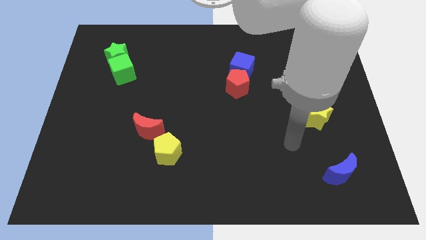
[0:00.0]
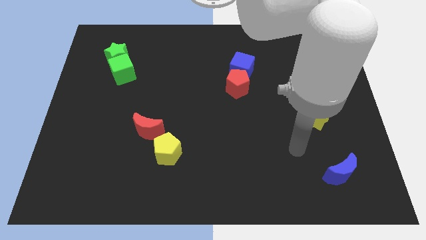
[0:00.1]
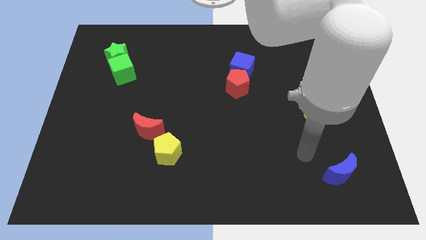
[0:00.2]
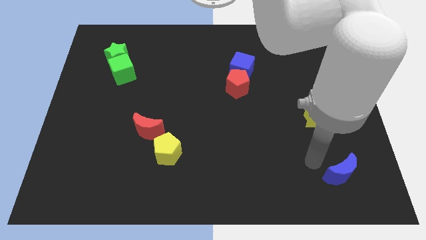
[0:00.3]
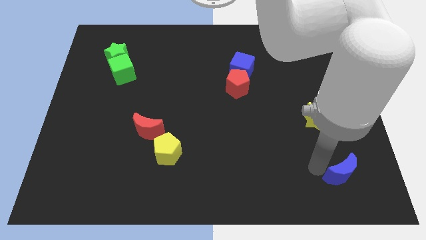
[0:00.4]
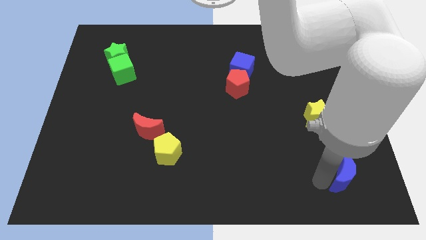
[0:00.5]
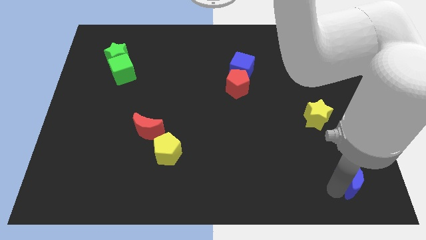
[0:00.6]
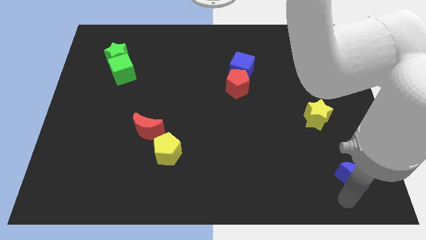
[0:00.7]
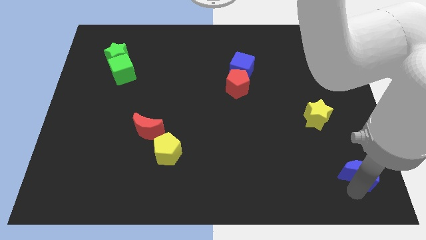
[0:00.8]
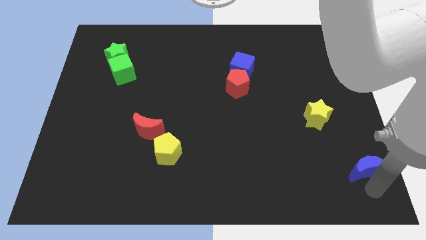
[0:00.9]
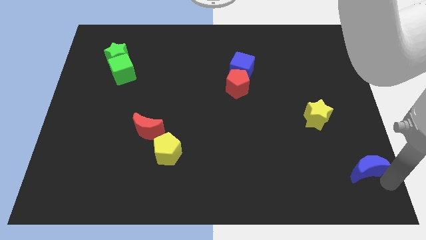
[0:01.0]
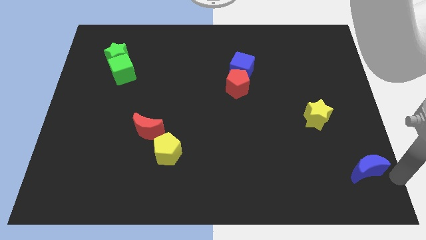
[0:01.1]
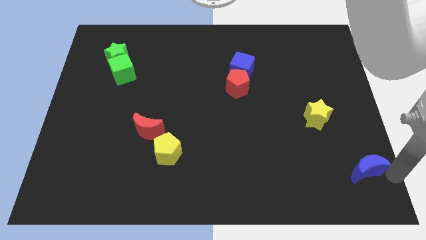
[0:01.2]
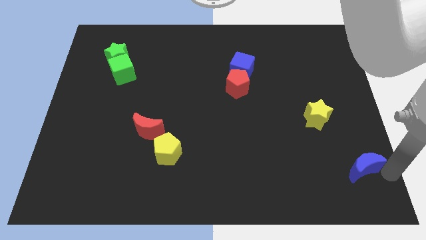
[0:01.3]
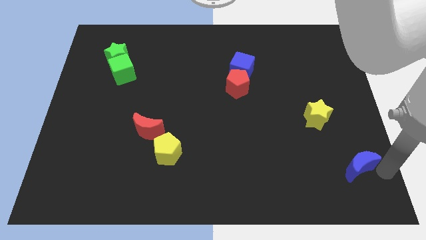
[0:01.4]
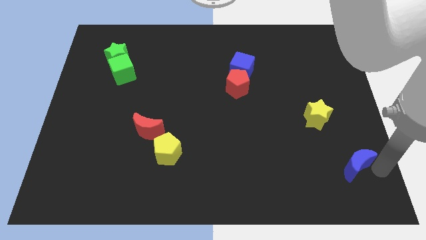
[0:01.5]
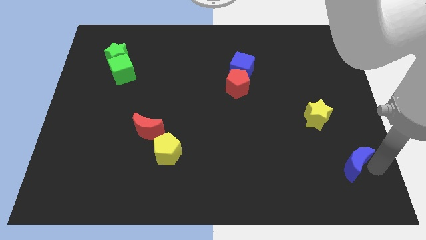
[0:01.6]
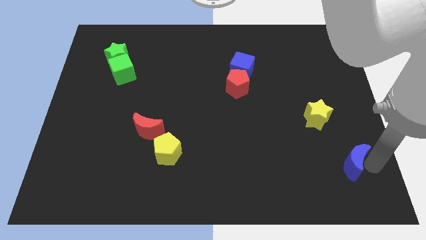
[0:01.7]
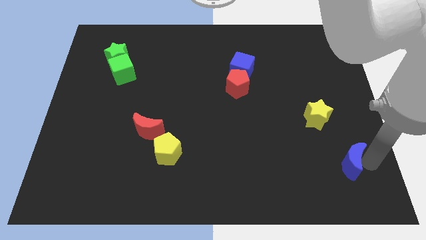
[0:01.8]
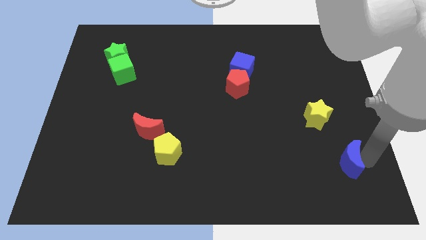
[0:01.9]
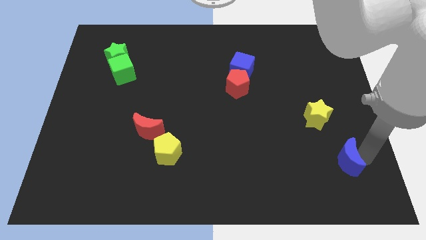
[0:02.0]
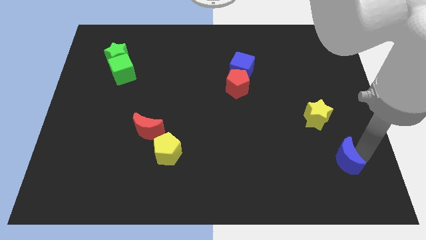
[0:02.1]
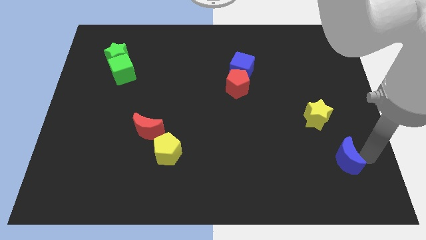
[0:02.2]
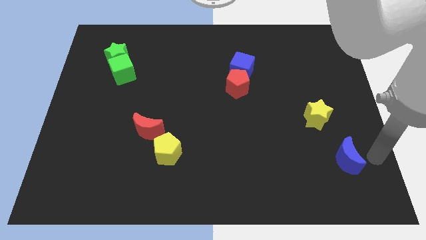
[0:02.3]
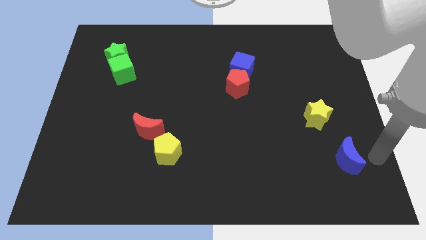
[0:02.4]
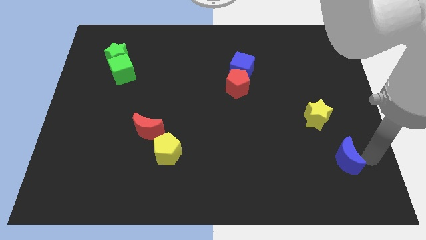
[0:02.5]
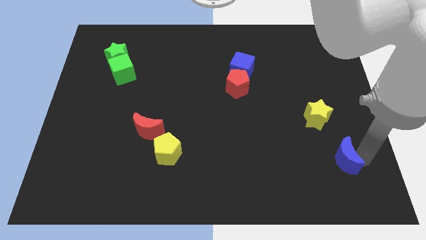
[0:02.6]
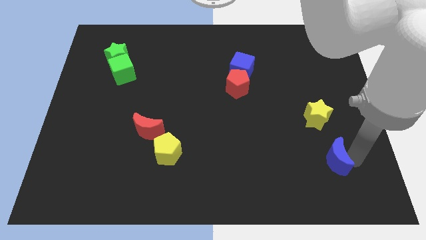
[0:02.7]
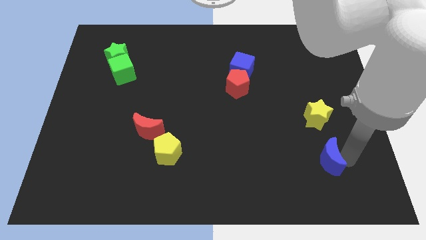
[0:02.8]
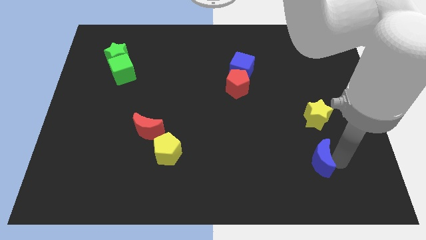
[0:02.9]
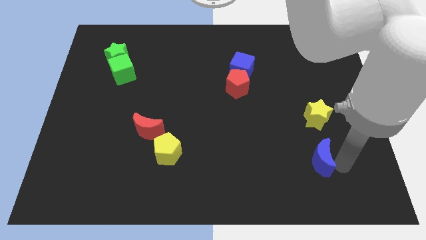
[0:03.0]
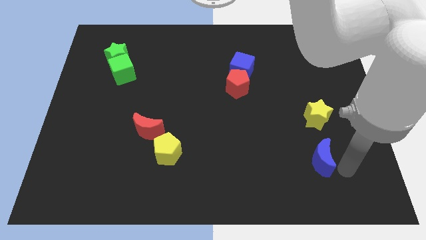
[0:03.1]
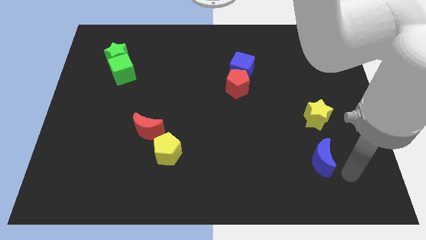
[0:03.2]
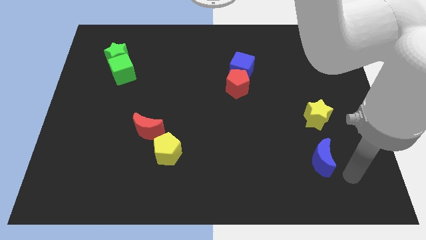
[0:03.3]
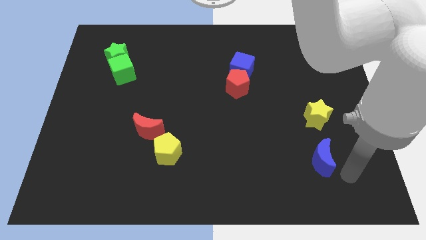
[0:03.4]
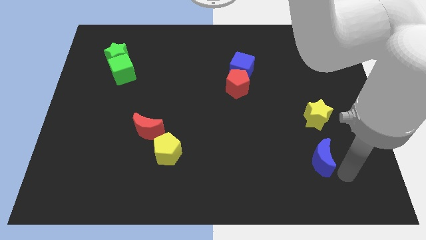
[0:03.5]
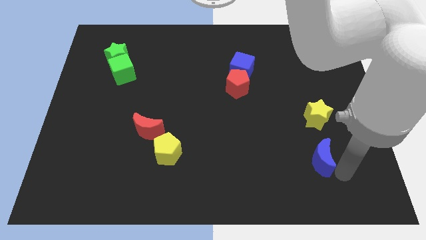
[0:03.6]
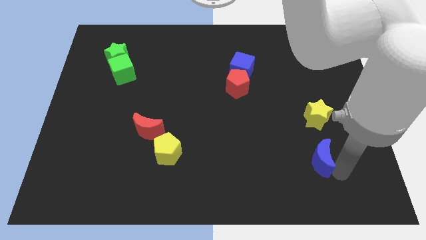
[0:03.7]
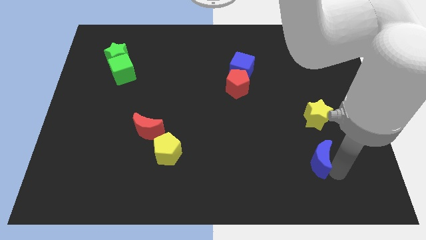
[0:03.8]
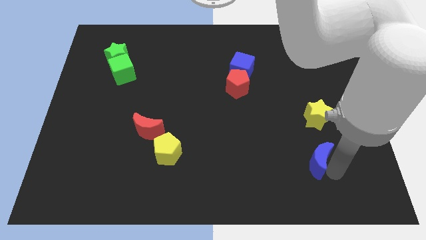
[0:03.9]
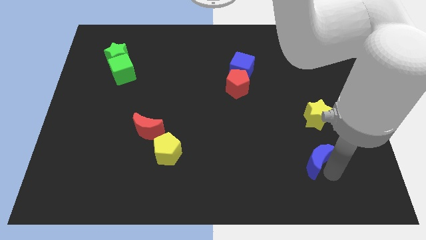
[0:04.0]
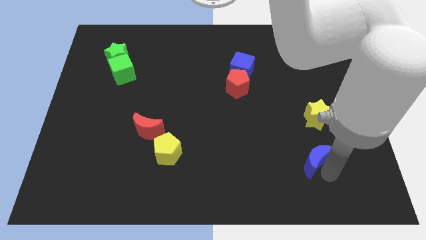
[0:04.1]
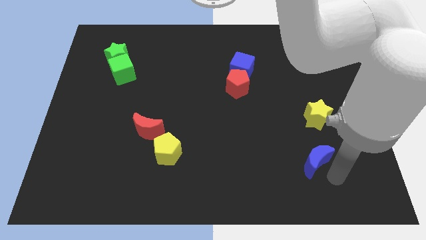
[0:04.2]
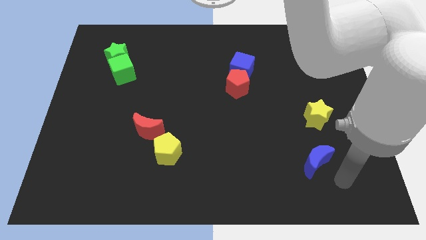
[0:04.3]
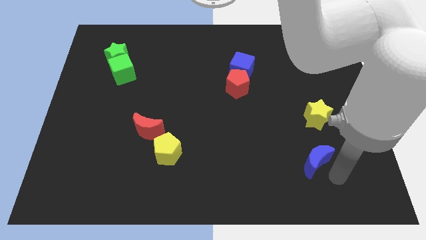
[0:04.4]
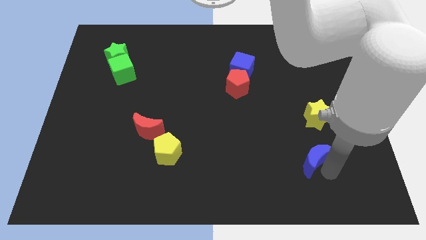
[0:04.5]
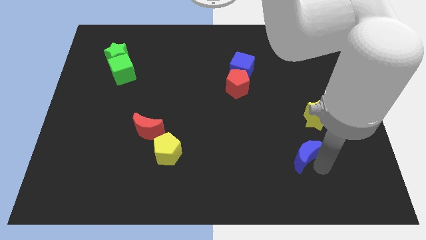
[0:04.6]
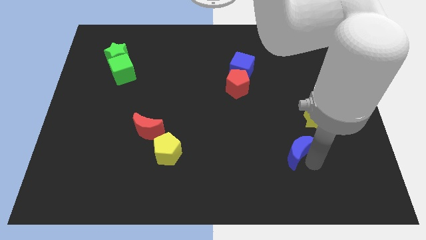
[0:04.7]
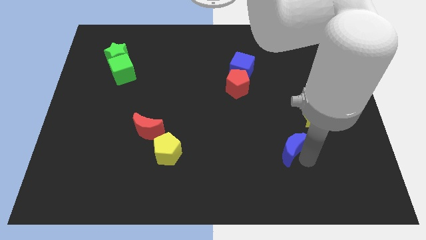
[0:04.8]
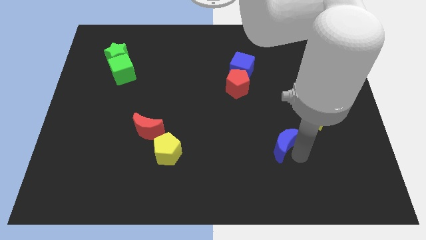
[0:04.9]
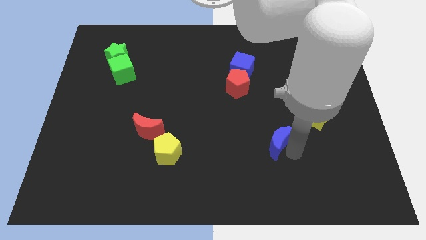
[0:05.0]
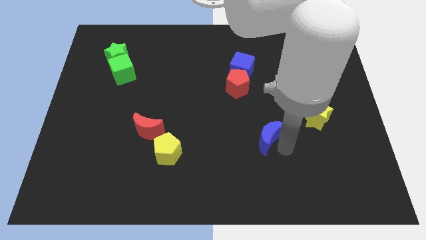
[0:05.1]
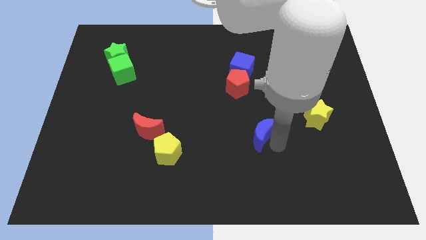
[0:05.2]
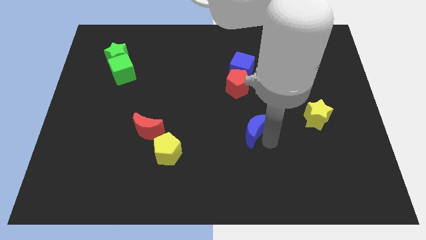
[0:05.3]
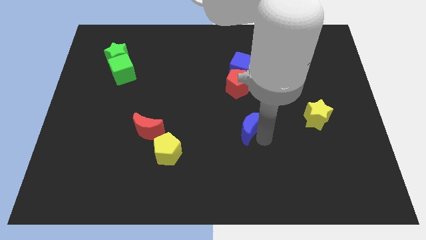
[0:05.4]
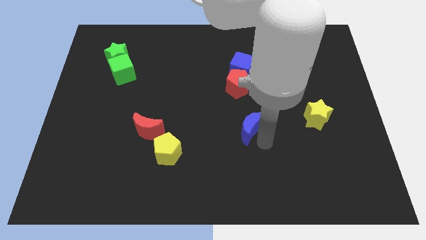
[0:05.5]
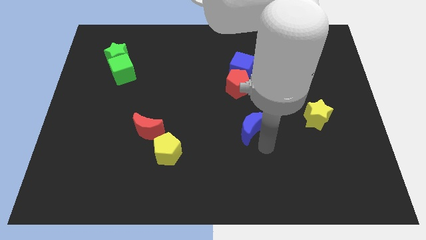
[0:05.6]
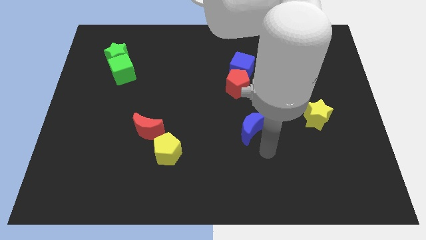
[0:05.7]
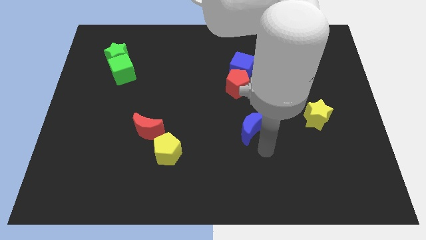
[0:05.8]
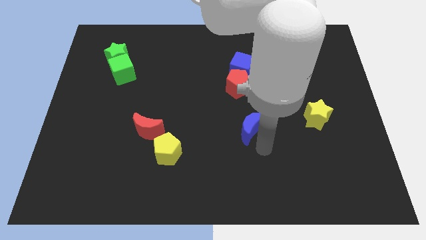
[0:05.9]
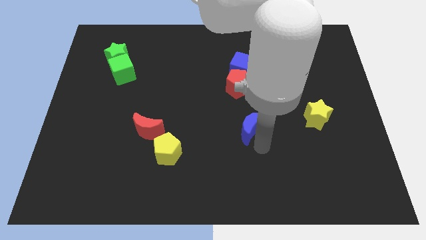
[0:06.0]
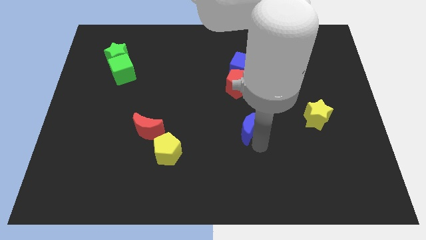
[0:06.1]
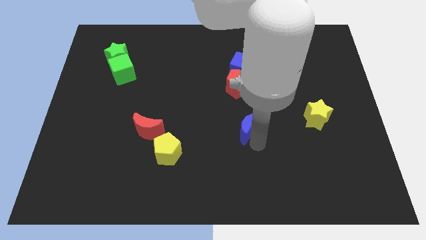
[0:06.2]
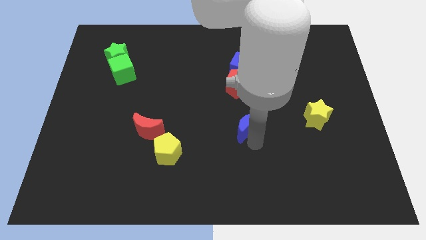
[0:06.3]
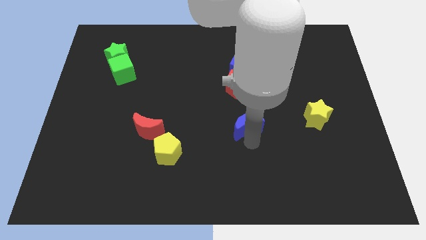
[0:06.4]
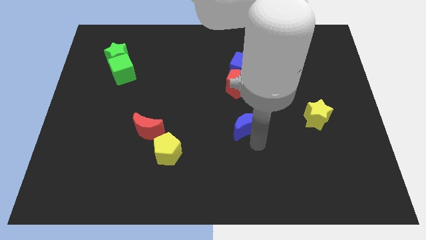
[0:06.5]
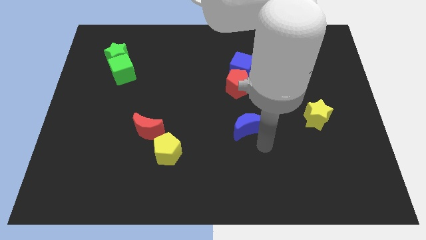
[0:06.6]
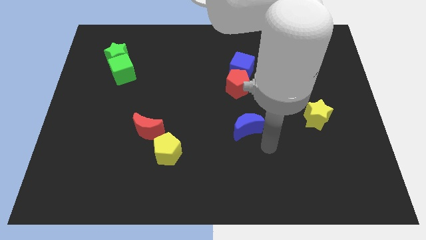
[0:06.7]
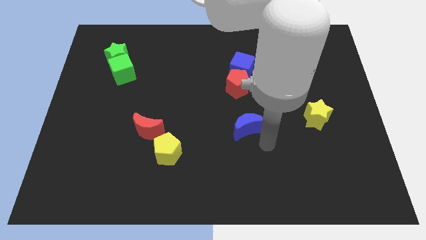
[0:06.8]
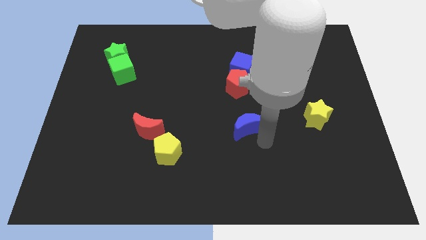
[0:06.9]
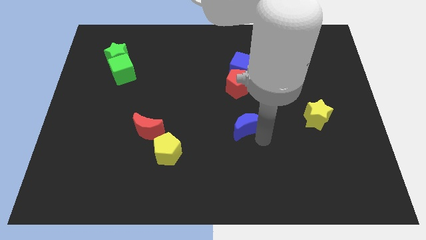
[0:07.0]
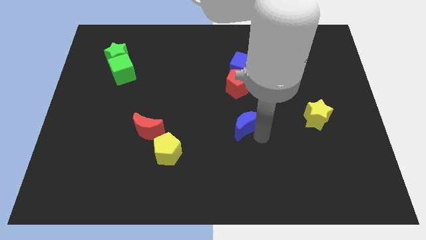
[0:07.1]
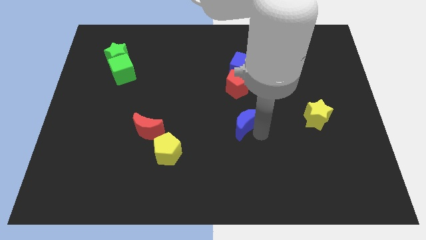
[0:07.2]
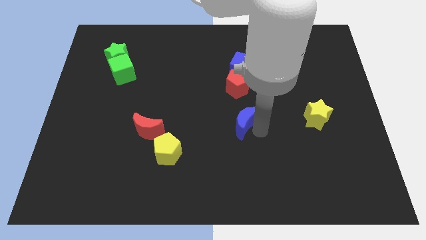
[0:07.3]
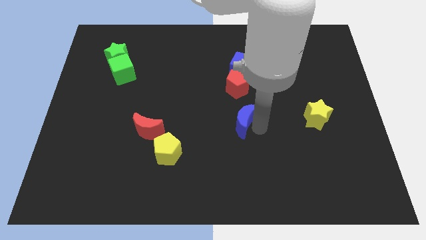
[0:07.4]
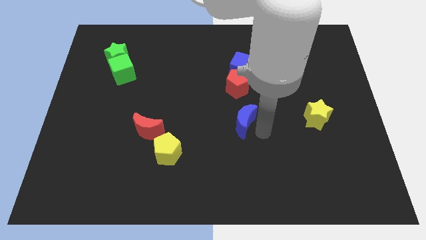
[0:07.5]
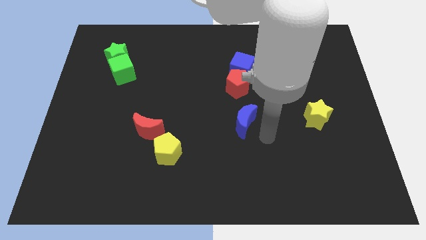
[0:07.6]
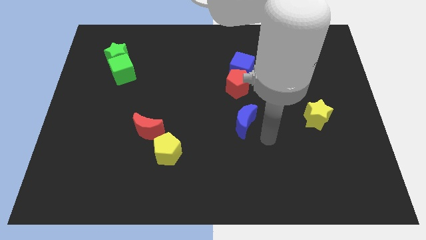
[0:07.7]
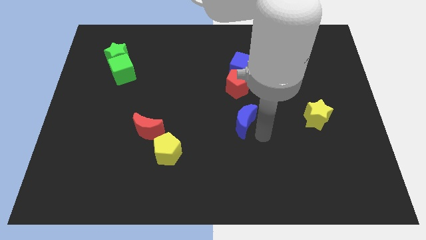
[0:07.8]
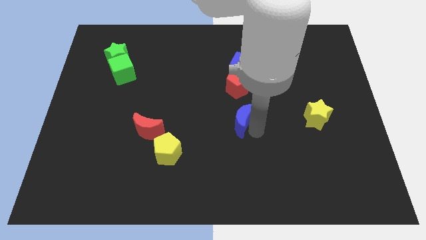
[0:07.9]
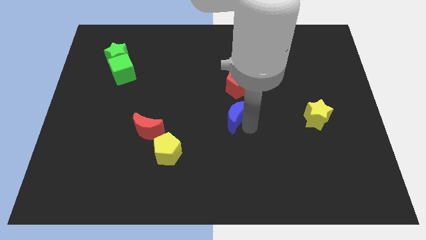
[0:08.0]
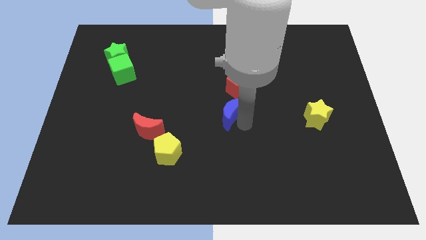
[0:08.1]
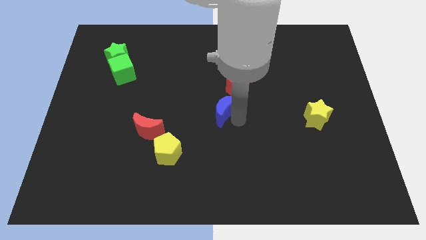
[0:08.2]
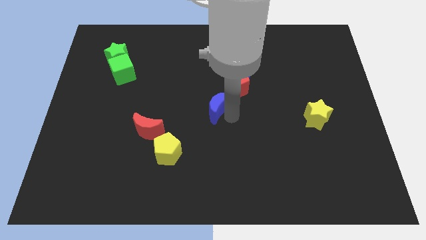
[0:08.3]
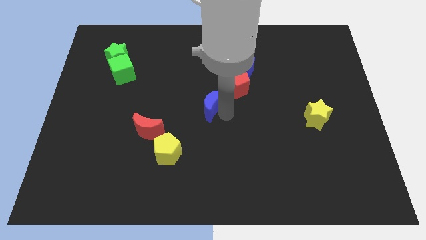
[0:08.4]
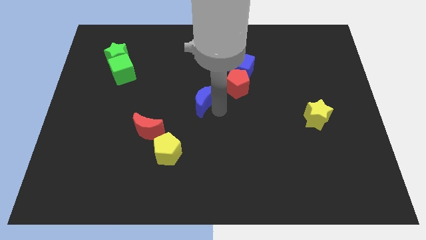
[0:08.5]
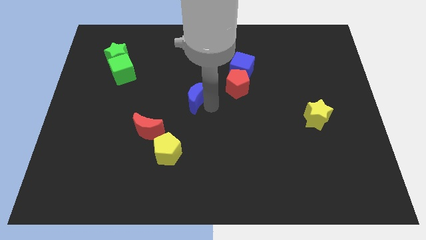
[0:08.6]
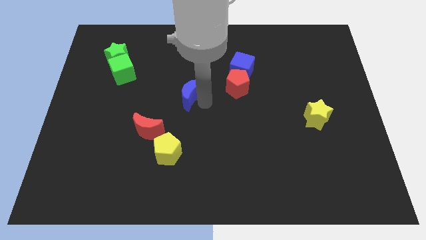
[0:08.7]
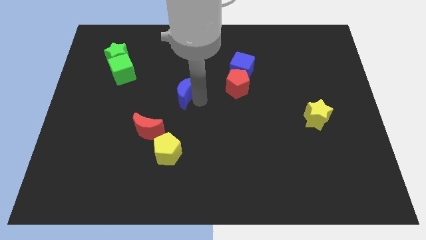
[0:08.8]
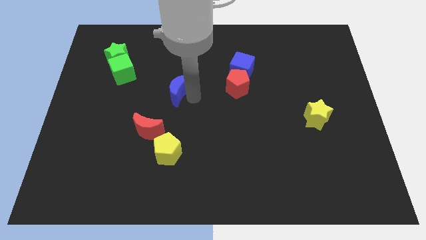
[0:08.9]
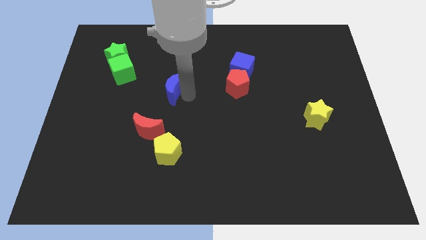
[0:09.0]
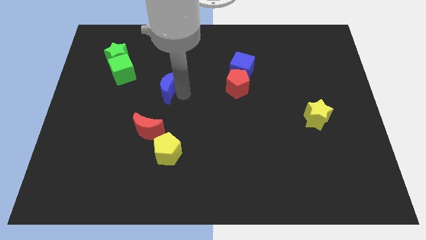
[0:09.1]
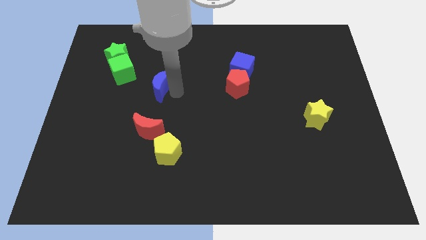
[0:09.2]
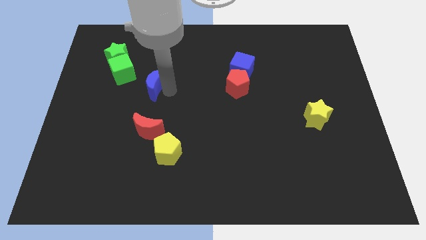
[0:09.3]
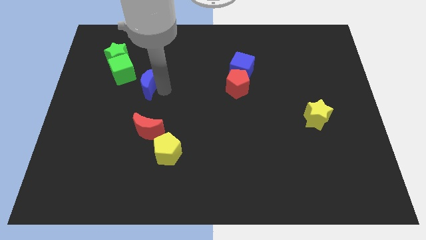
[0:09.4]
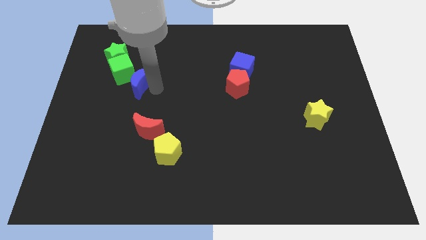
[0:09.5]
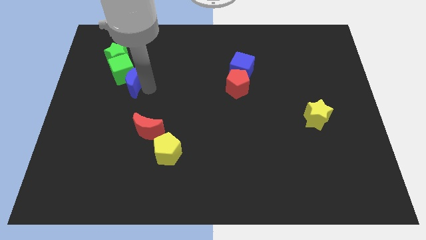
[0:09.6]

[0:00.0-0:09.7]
put the blue moon to the green cube
